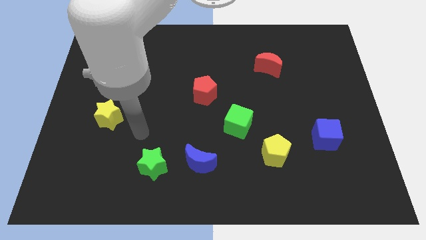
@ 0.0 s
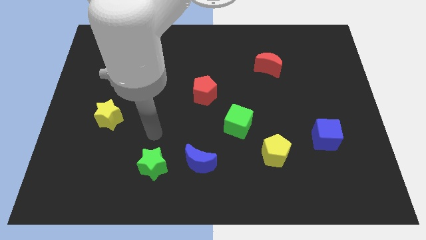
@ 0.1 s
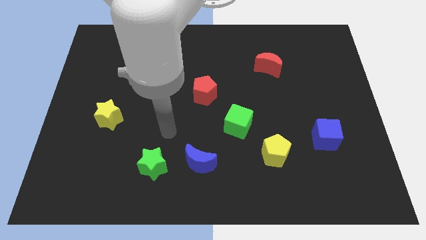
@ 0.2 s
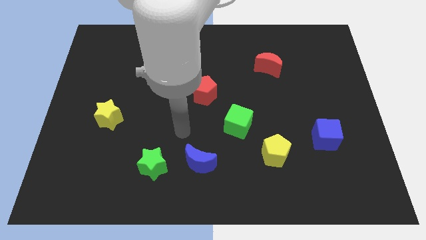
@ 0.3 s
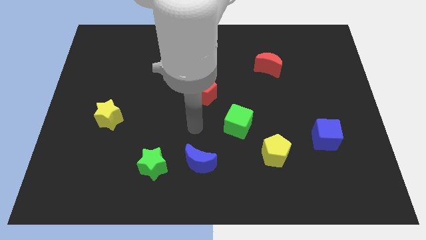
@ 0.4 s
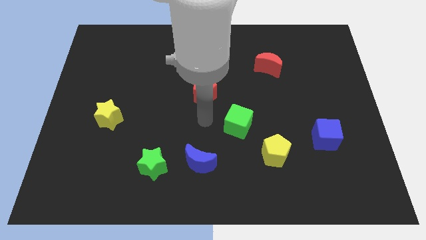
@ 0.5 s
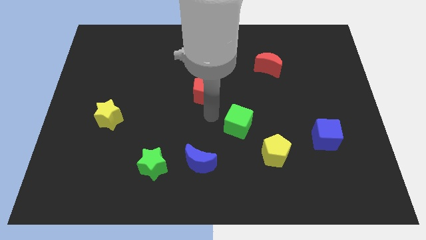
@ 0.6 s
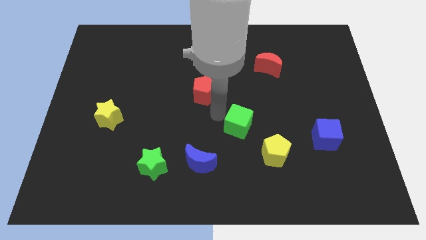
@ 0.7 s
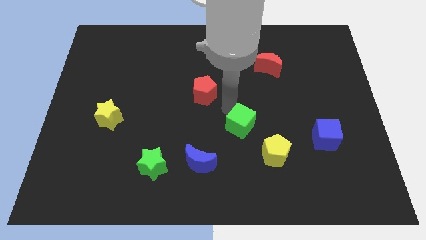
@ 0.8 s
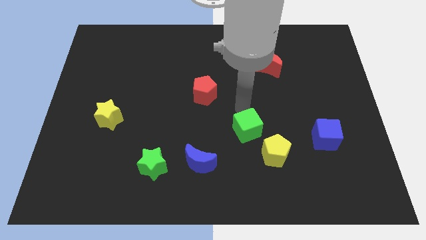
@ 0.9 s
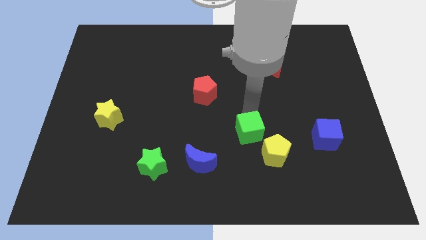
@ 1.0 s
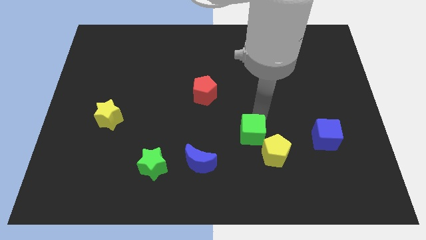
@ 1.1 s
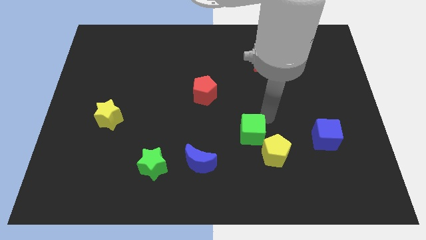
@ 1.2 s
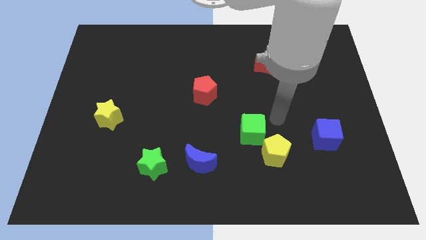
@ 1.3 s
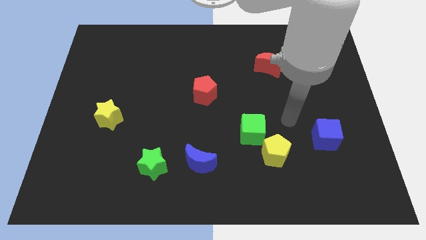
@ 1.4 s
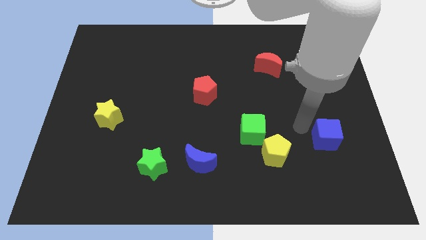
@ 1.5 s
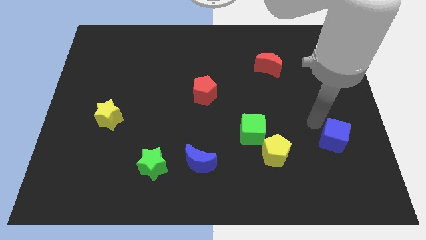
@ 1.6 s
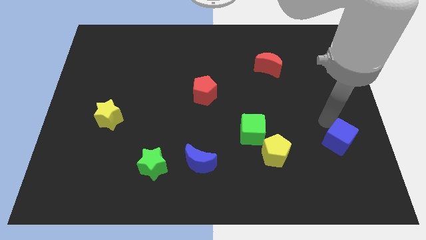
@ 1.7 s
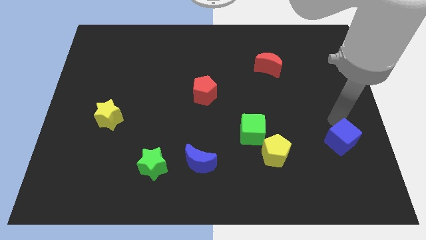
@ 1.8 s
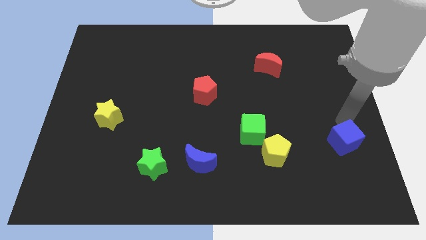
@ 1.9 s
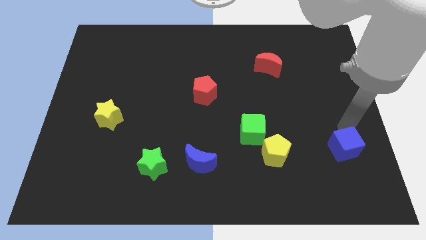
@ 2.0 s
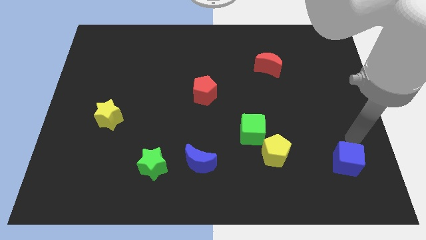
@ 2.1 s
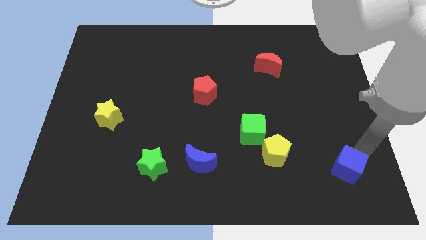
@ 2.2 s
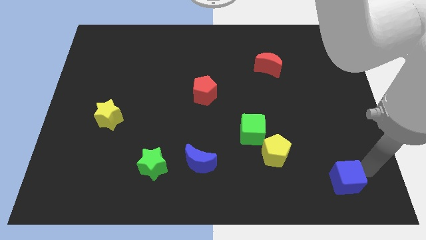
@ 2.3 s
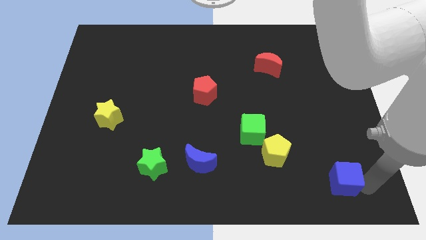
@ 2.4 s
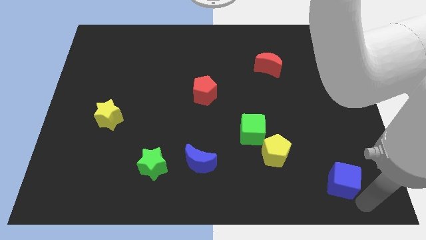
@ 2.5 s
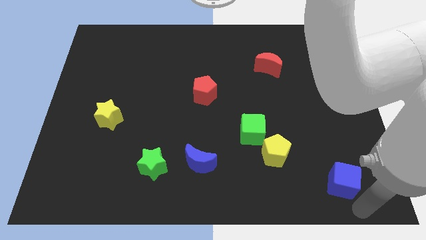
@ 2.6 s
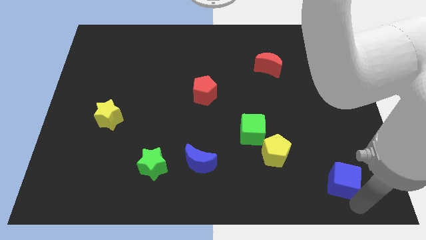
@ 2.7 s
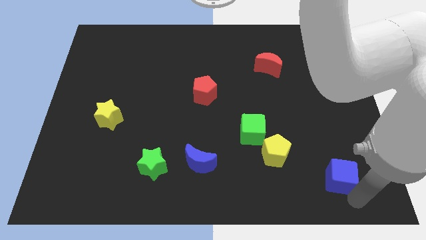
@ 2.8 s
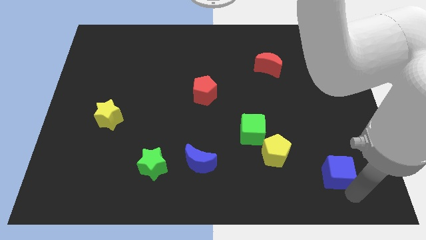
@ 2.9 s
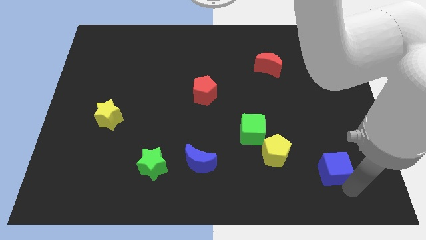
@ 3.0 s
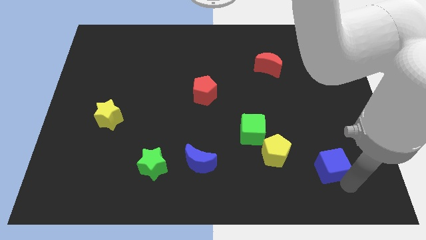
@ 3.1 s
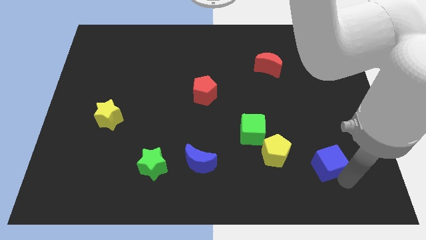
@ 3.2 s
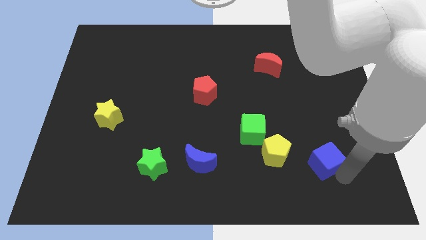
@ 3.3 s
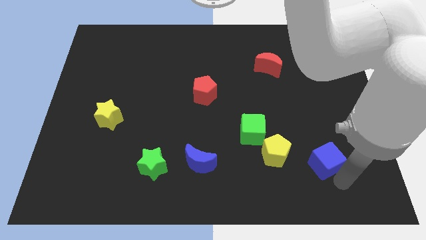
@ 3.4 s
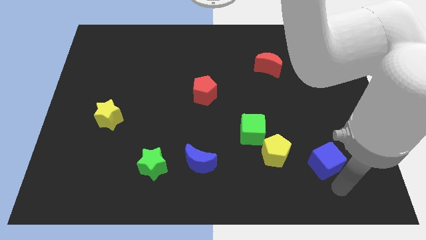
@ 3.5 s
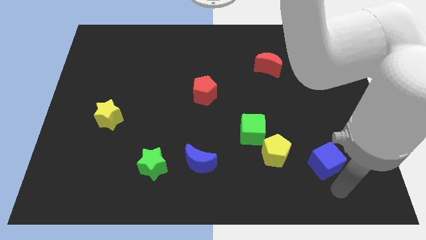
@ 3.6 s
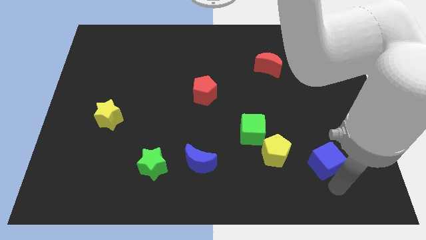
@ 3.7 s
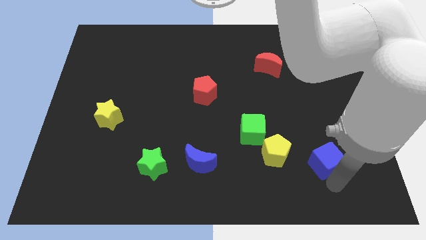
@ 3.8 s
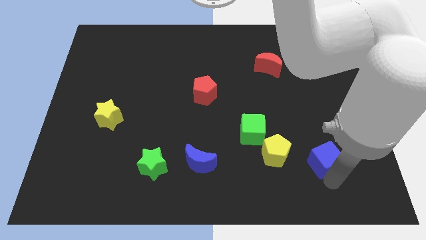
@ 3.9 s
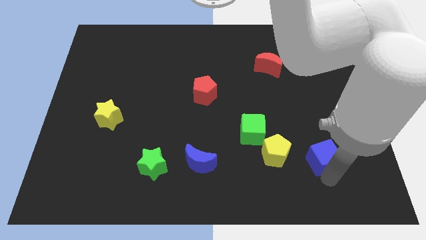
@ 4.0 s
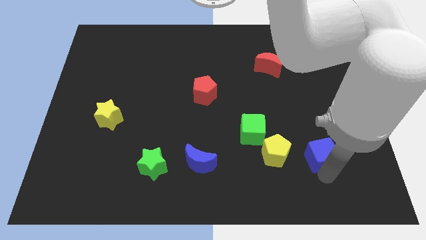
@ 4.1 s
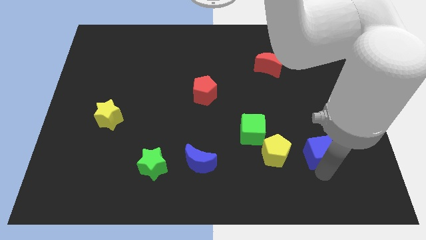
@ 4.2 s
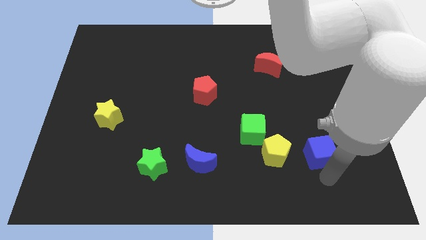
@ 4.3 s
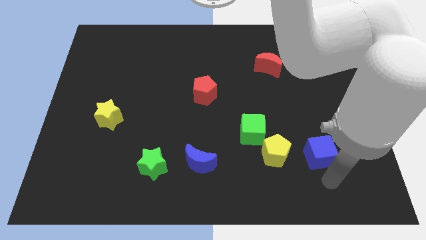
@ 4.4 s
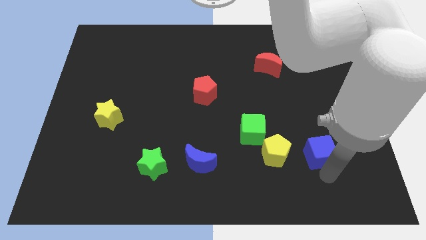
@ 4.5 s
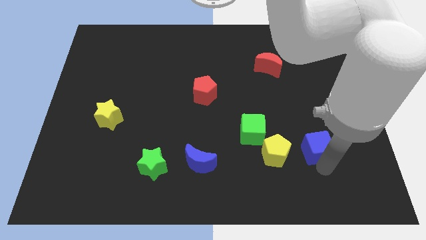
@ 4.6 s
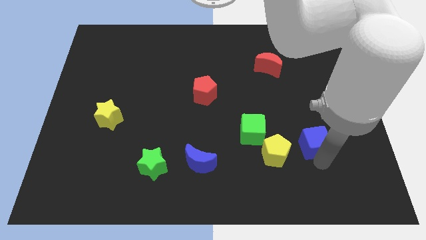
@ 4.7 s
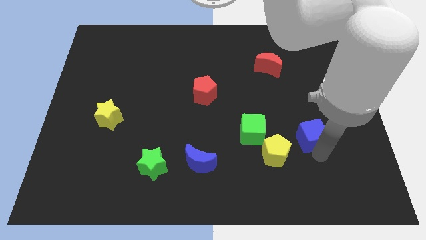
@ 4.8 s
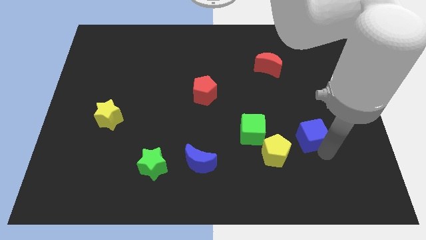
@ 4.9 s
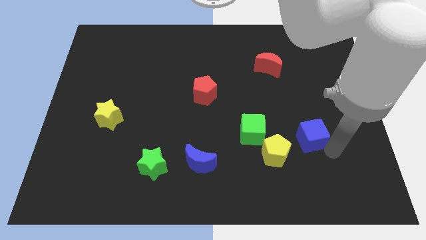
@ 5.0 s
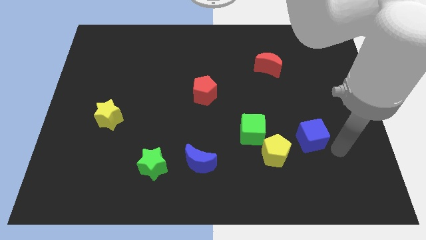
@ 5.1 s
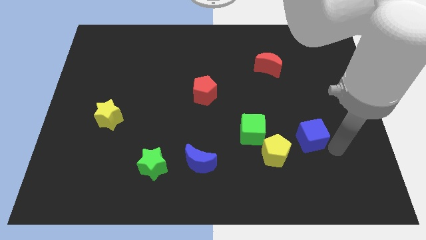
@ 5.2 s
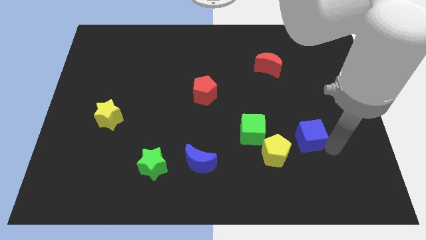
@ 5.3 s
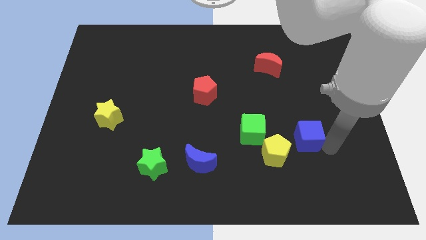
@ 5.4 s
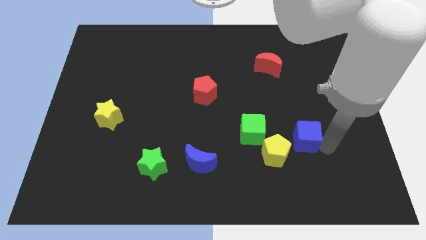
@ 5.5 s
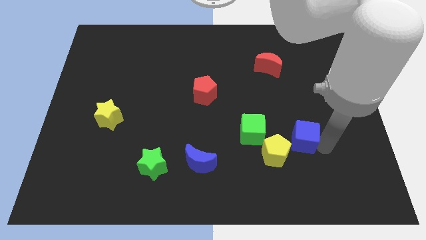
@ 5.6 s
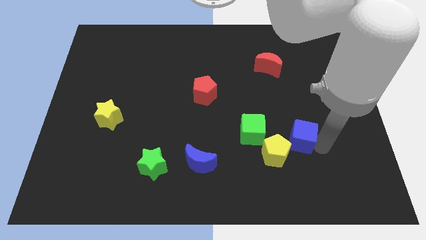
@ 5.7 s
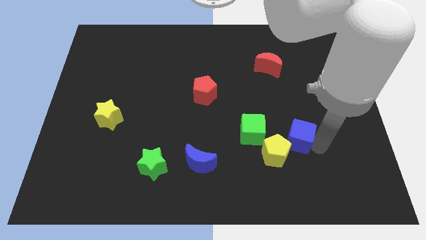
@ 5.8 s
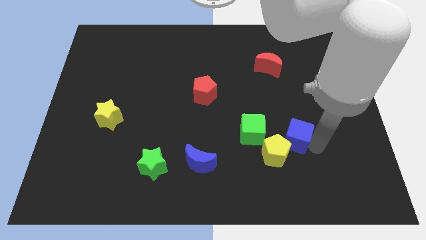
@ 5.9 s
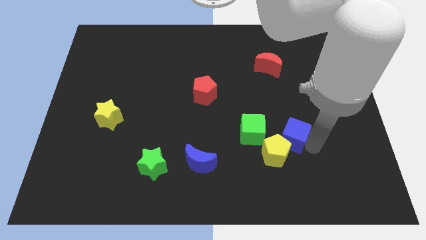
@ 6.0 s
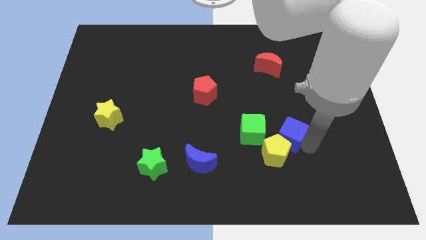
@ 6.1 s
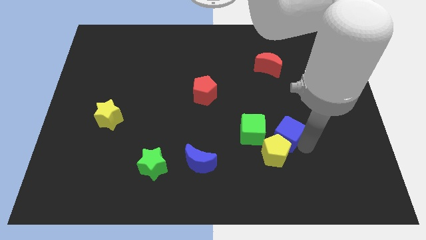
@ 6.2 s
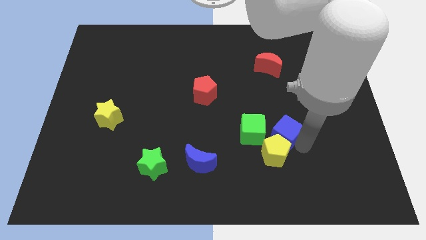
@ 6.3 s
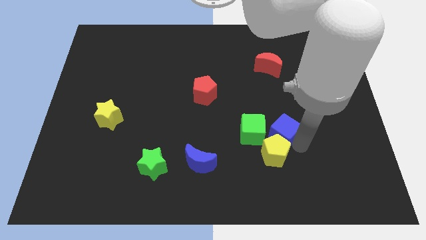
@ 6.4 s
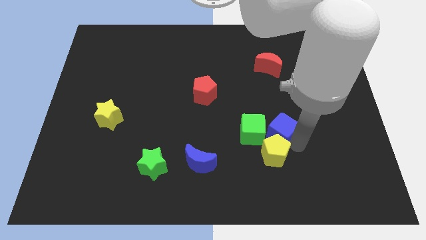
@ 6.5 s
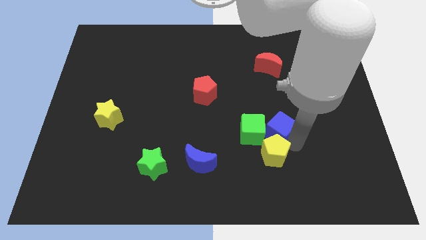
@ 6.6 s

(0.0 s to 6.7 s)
move the blue cube next to the green cube
